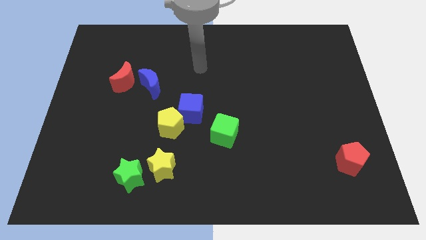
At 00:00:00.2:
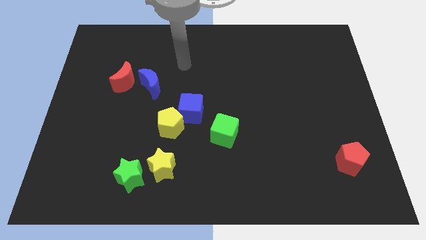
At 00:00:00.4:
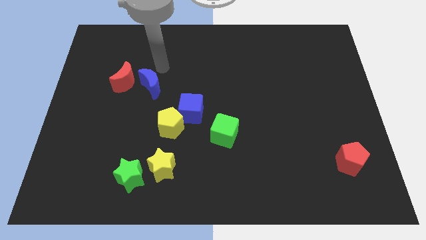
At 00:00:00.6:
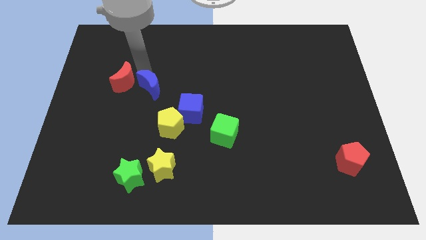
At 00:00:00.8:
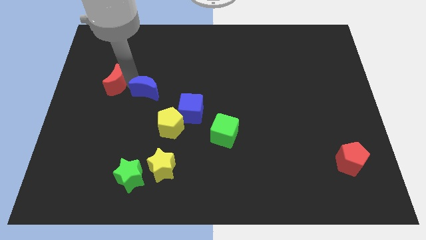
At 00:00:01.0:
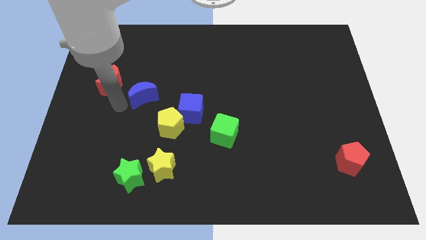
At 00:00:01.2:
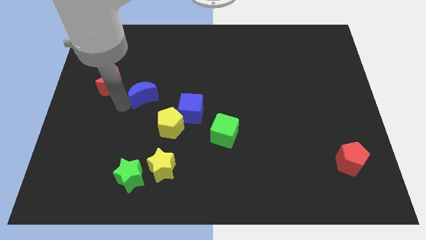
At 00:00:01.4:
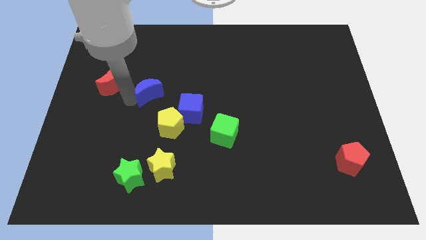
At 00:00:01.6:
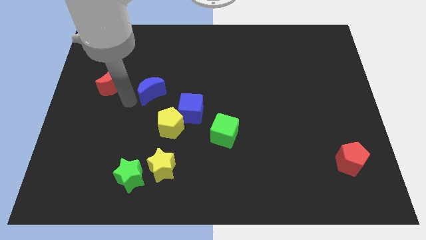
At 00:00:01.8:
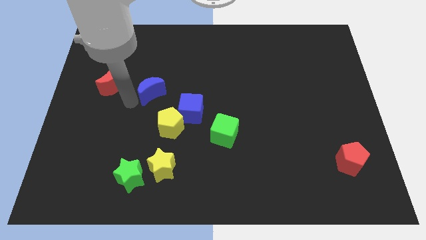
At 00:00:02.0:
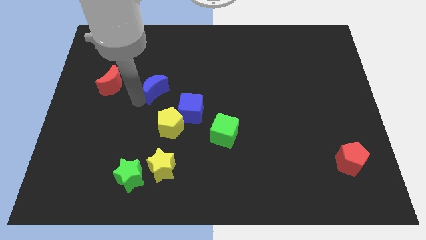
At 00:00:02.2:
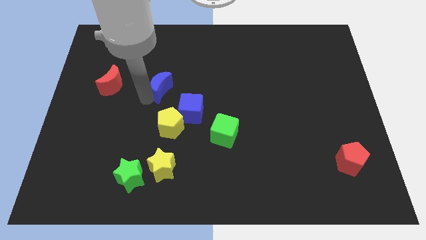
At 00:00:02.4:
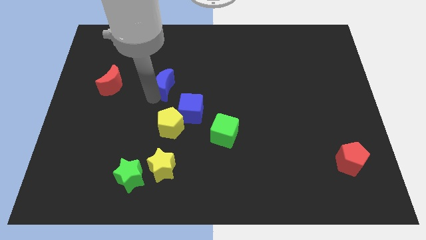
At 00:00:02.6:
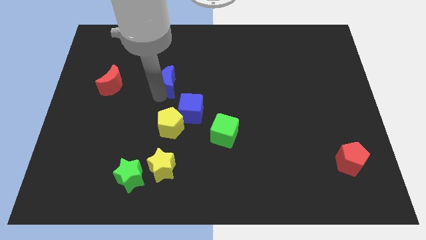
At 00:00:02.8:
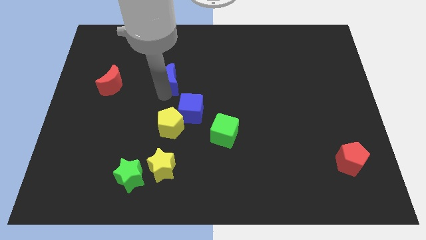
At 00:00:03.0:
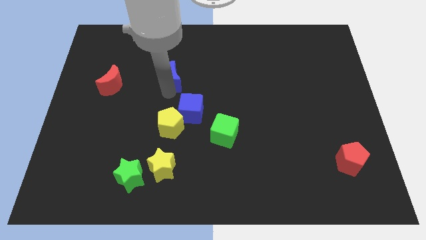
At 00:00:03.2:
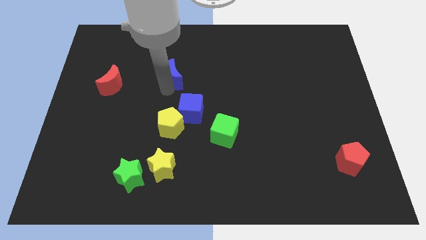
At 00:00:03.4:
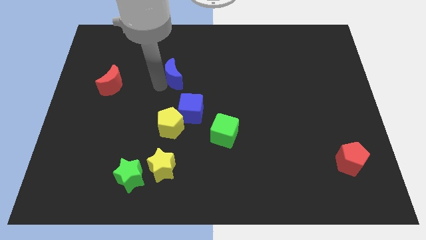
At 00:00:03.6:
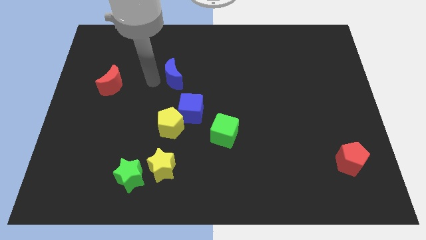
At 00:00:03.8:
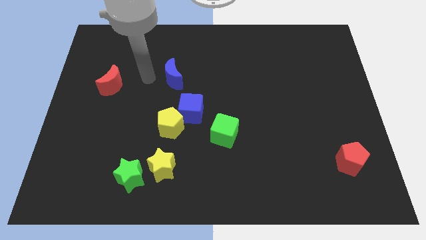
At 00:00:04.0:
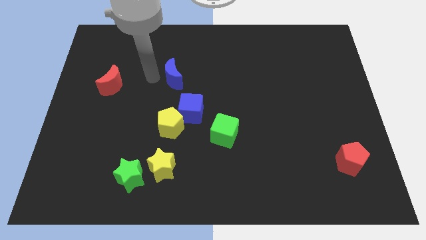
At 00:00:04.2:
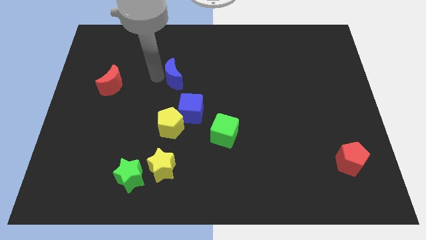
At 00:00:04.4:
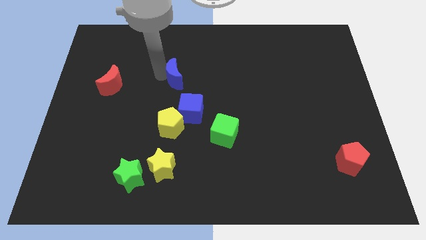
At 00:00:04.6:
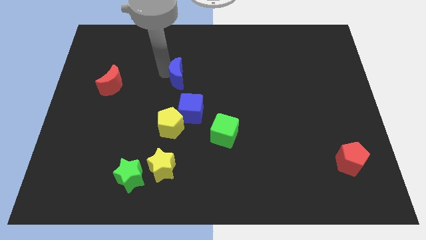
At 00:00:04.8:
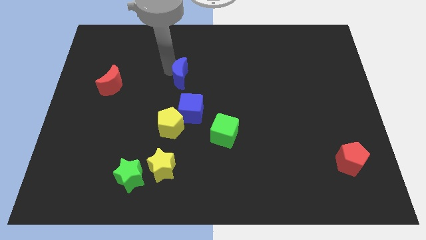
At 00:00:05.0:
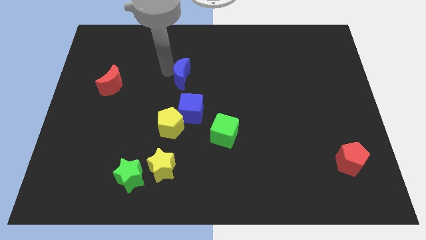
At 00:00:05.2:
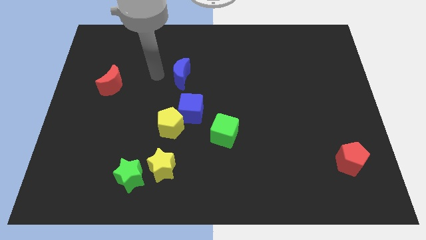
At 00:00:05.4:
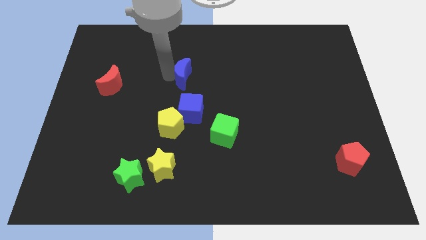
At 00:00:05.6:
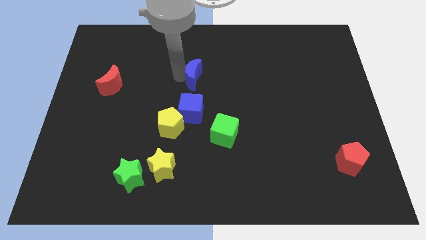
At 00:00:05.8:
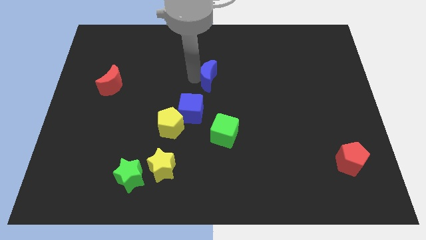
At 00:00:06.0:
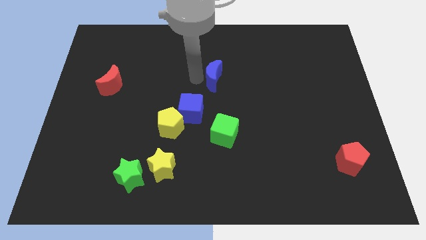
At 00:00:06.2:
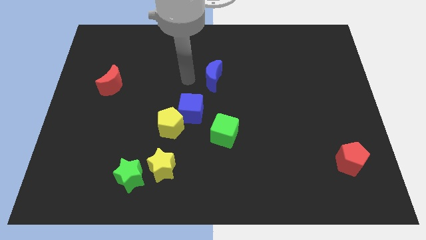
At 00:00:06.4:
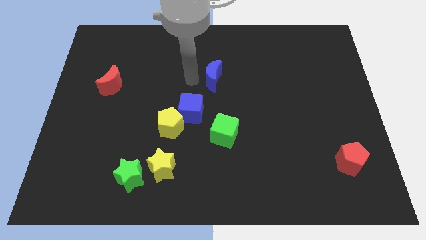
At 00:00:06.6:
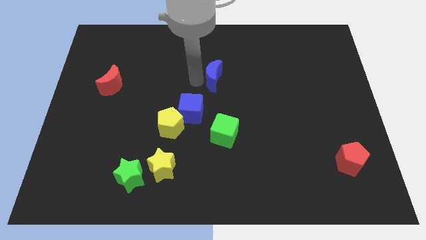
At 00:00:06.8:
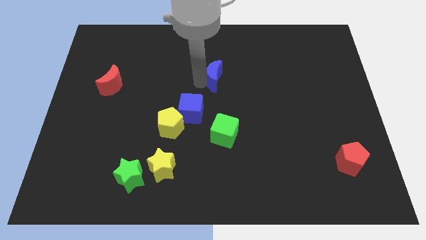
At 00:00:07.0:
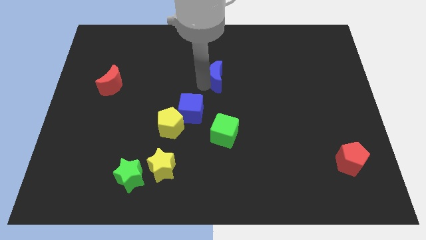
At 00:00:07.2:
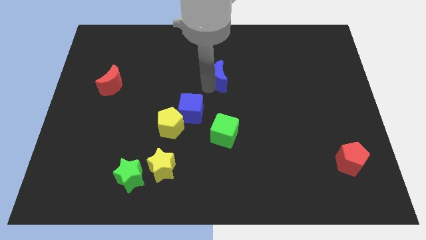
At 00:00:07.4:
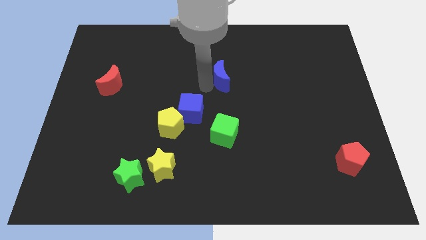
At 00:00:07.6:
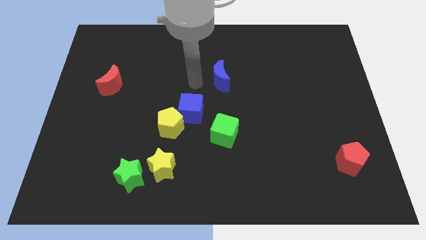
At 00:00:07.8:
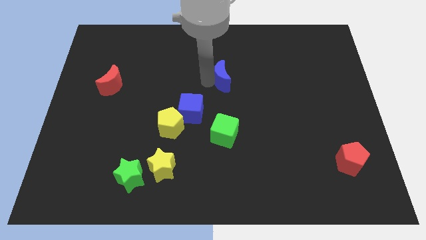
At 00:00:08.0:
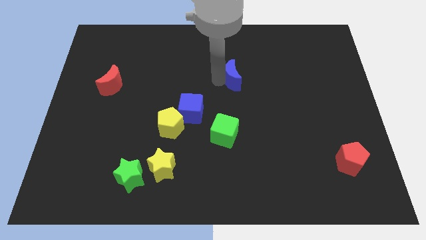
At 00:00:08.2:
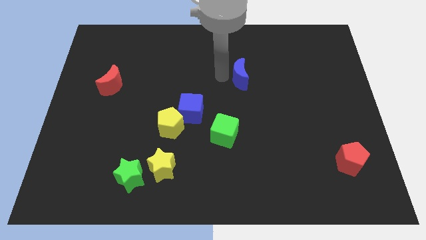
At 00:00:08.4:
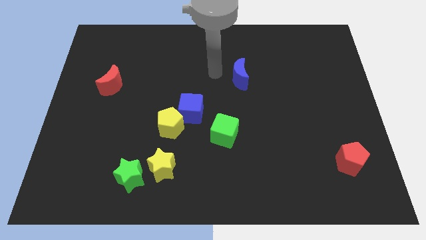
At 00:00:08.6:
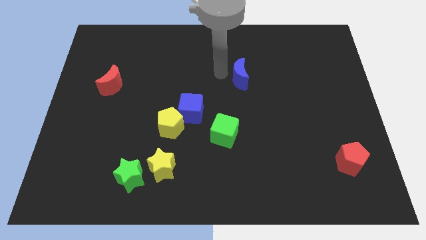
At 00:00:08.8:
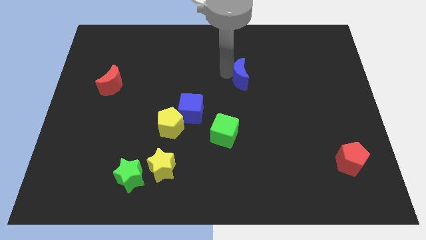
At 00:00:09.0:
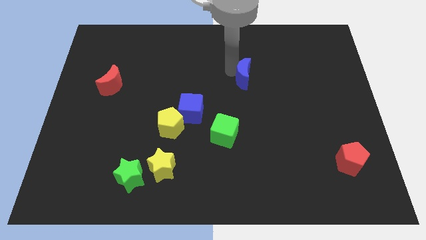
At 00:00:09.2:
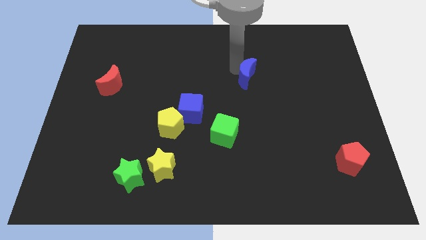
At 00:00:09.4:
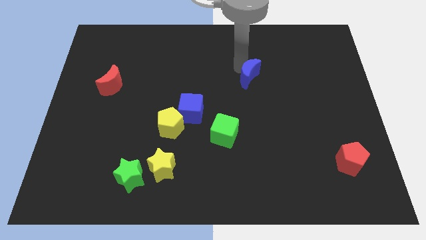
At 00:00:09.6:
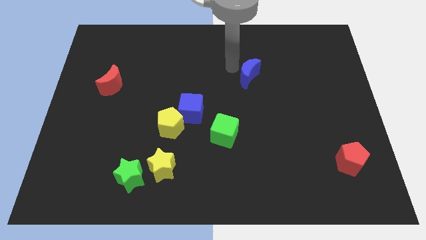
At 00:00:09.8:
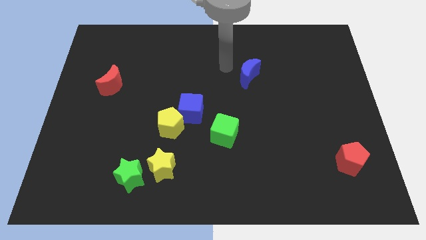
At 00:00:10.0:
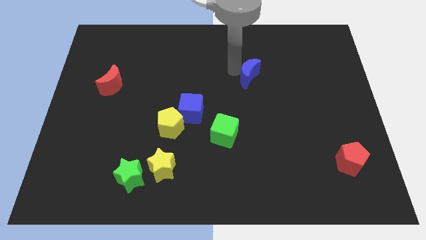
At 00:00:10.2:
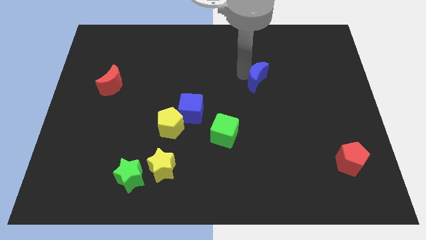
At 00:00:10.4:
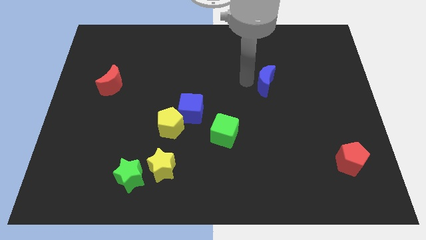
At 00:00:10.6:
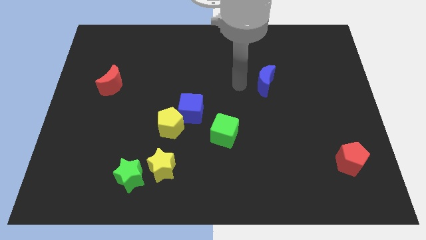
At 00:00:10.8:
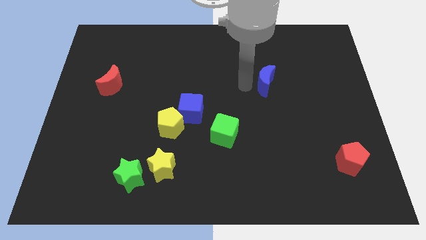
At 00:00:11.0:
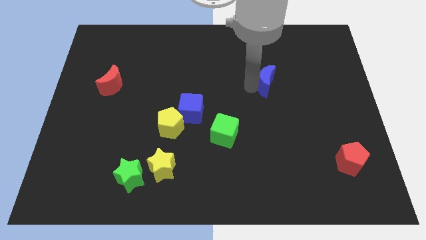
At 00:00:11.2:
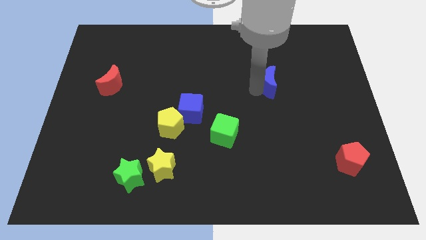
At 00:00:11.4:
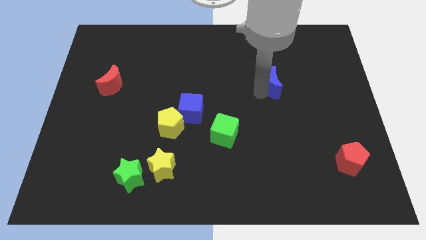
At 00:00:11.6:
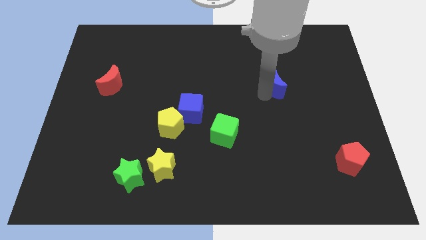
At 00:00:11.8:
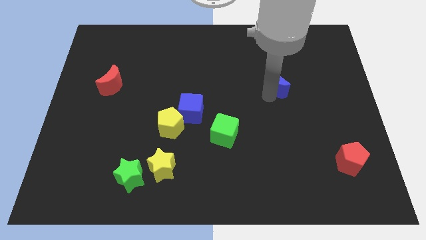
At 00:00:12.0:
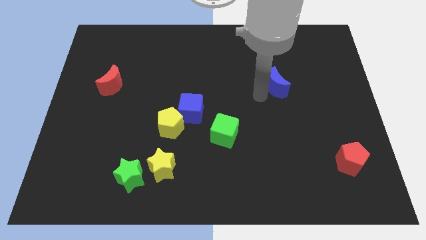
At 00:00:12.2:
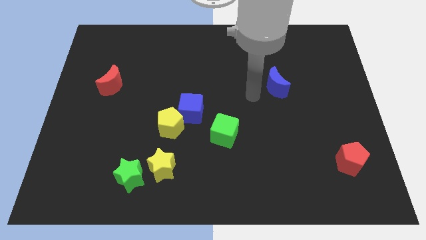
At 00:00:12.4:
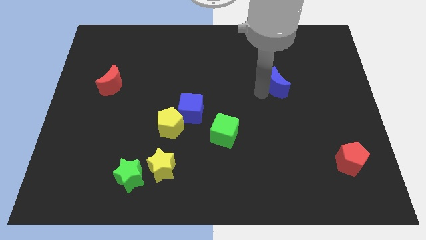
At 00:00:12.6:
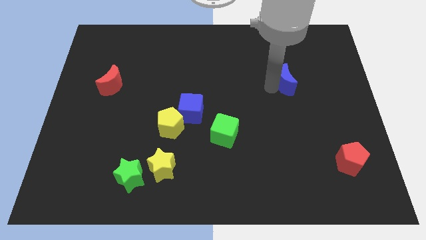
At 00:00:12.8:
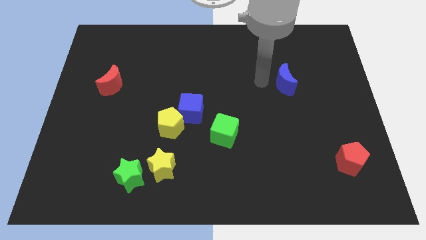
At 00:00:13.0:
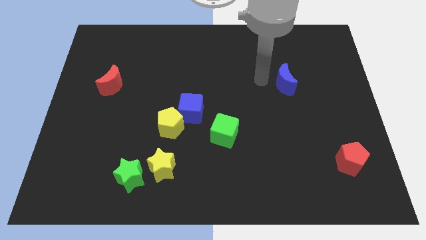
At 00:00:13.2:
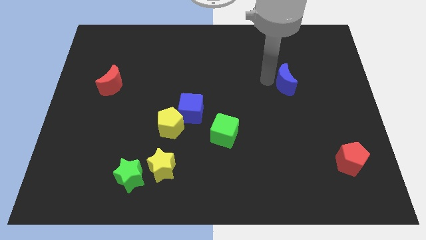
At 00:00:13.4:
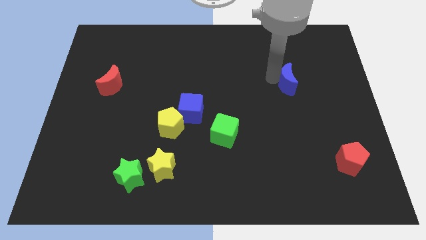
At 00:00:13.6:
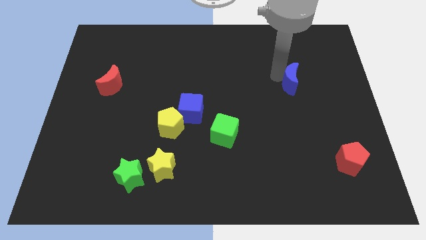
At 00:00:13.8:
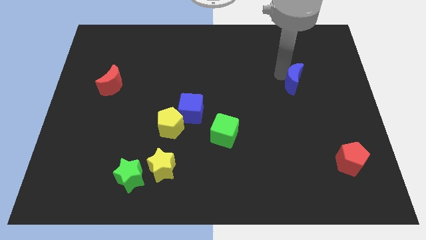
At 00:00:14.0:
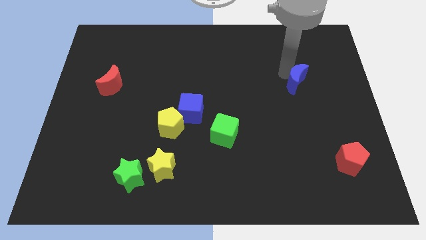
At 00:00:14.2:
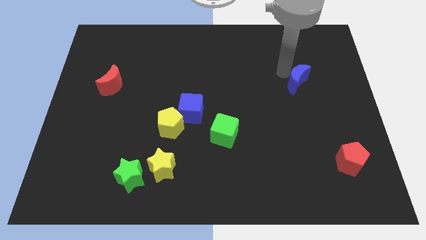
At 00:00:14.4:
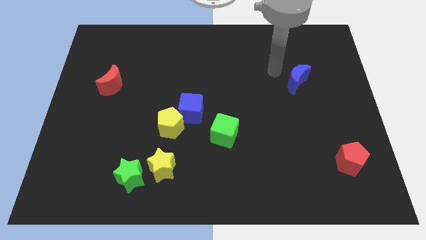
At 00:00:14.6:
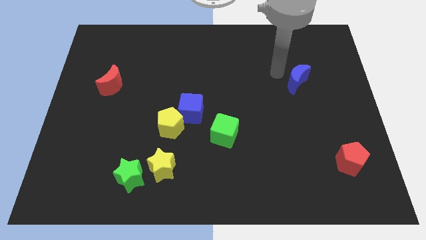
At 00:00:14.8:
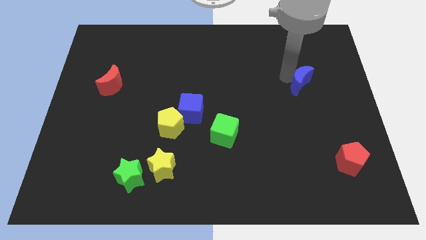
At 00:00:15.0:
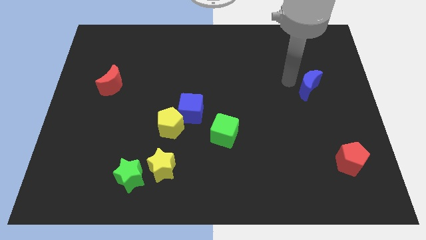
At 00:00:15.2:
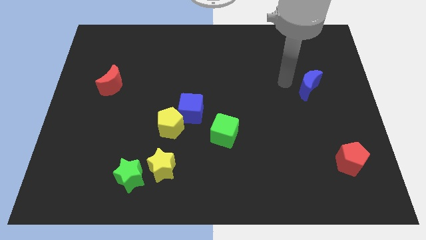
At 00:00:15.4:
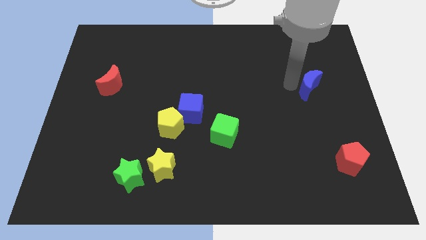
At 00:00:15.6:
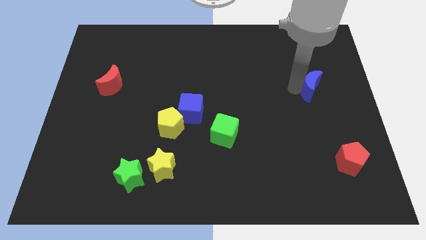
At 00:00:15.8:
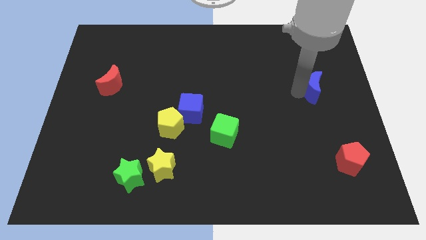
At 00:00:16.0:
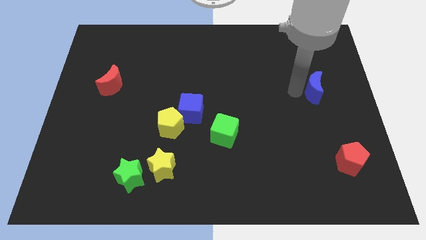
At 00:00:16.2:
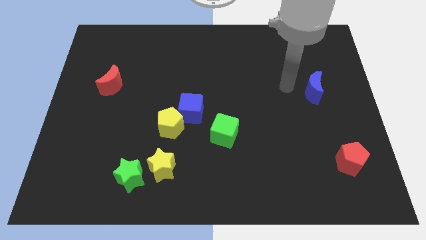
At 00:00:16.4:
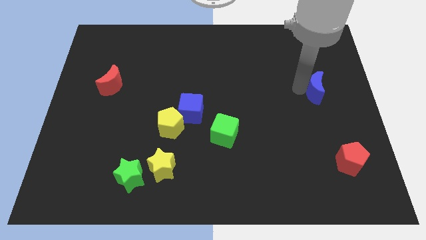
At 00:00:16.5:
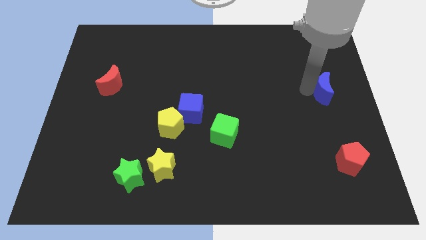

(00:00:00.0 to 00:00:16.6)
put the blue moon to the center right
